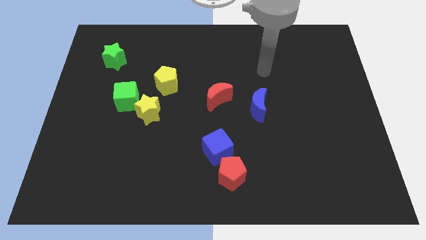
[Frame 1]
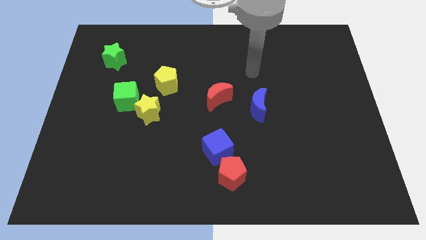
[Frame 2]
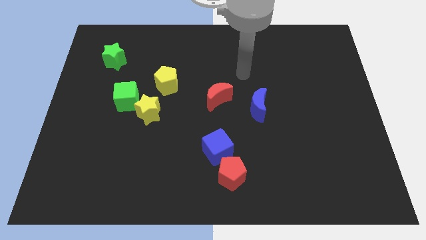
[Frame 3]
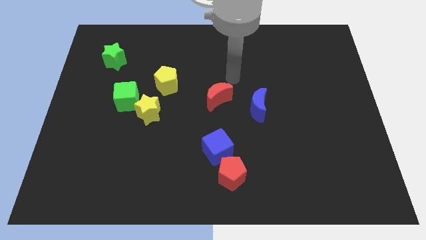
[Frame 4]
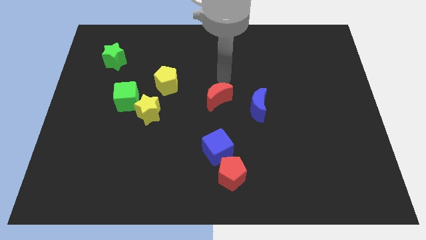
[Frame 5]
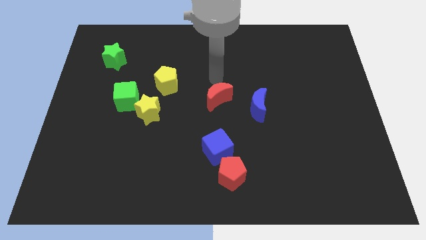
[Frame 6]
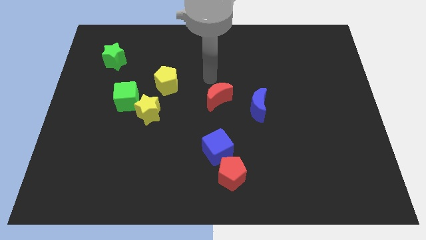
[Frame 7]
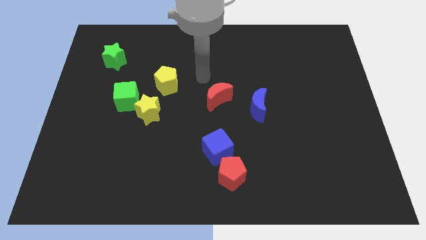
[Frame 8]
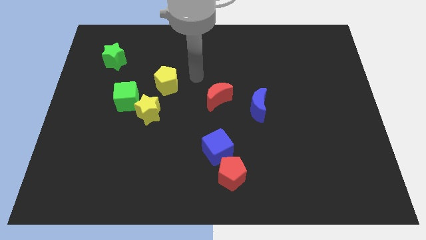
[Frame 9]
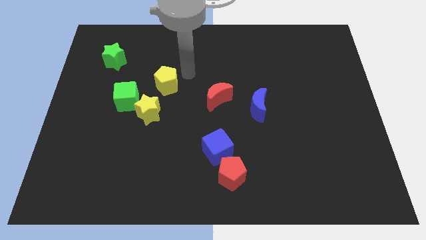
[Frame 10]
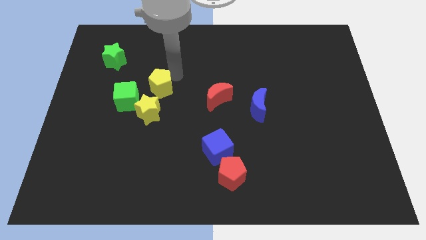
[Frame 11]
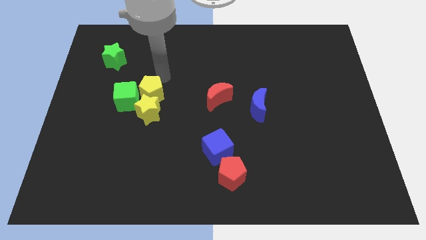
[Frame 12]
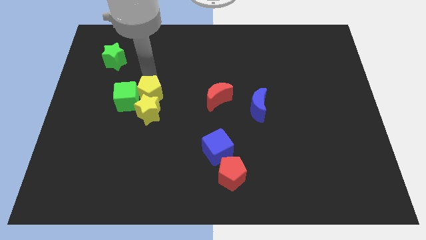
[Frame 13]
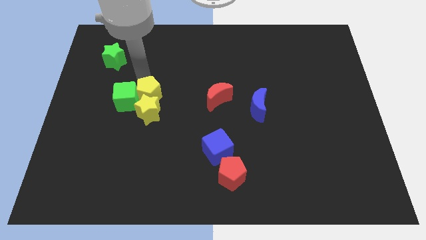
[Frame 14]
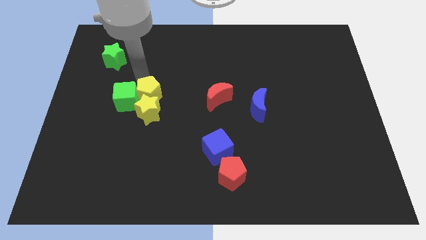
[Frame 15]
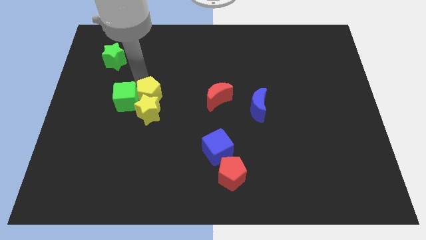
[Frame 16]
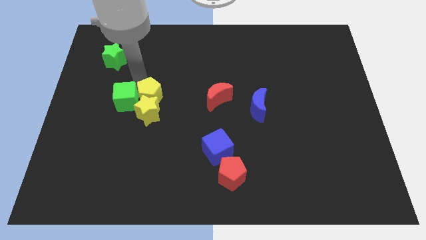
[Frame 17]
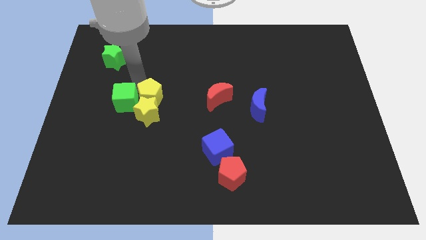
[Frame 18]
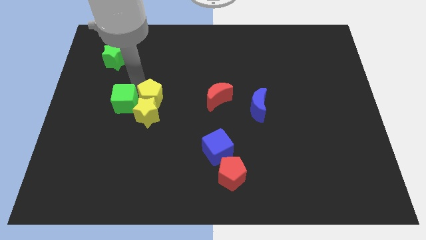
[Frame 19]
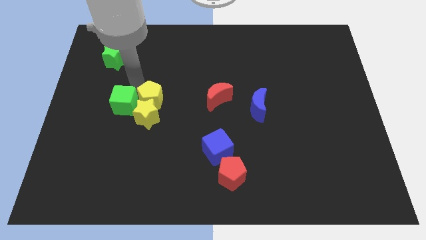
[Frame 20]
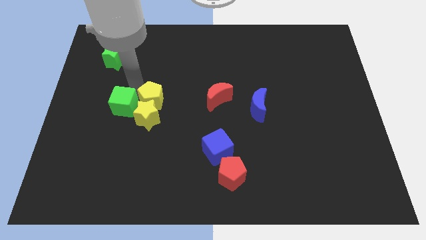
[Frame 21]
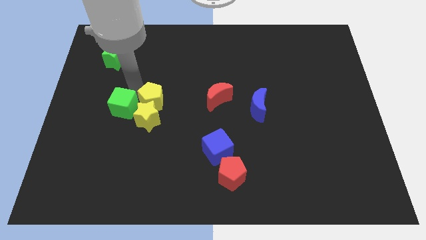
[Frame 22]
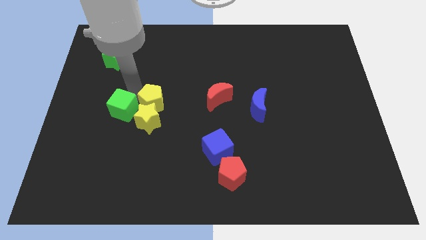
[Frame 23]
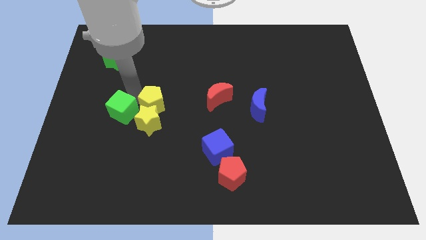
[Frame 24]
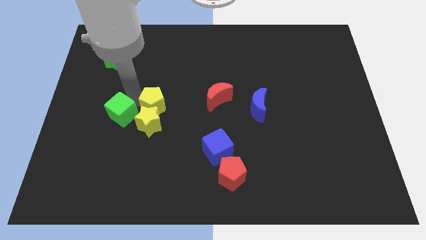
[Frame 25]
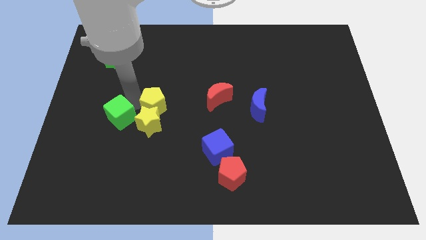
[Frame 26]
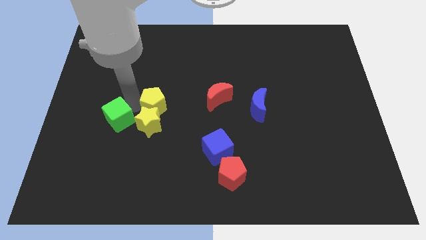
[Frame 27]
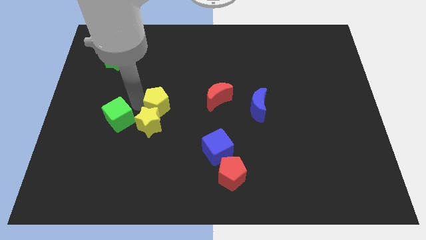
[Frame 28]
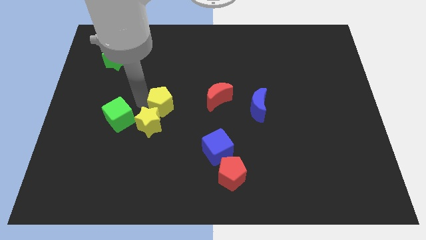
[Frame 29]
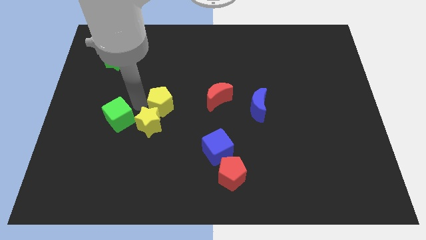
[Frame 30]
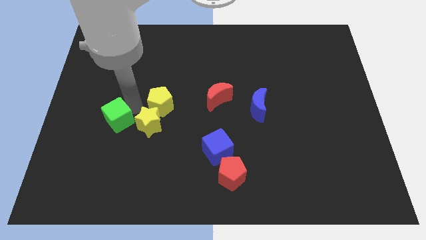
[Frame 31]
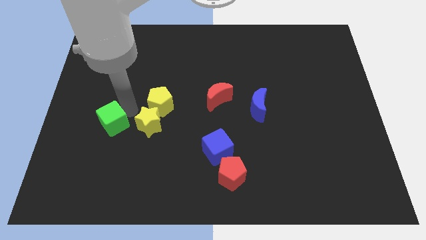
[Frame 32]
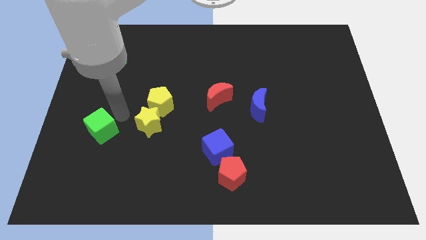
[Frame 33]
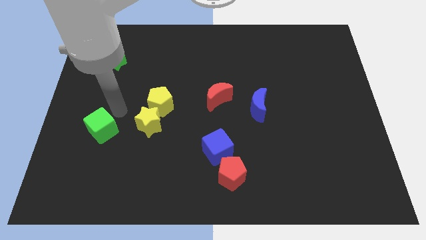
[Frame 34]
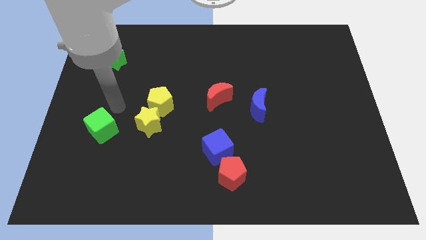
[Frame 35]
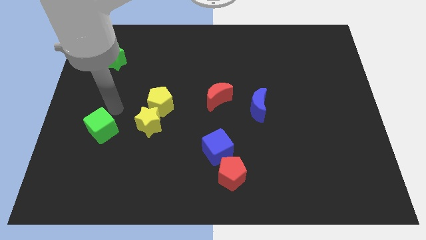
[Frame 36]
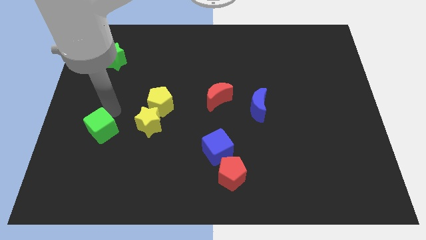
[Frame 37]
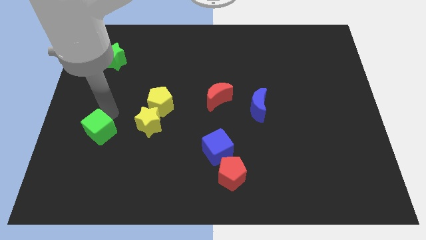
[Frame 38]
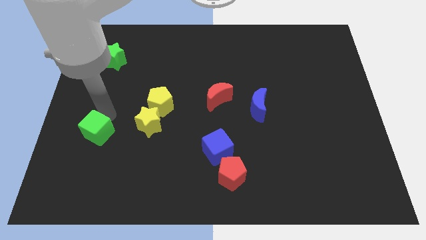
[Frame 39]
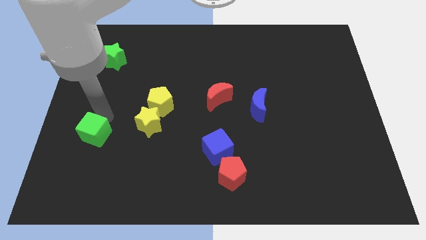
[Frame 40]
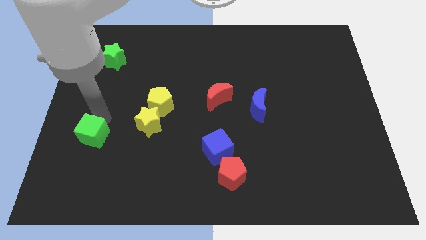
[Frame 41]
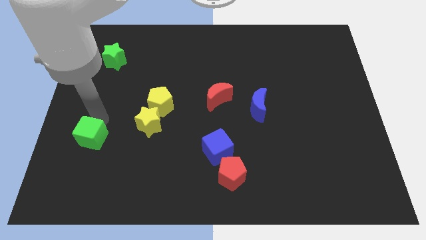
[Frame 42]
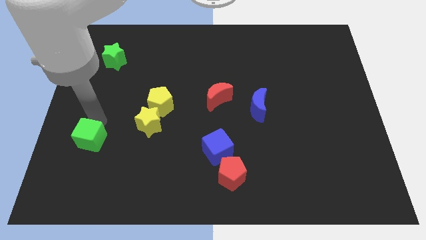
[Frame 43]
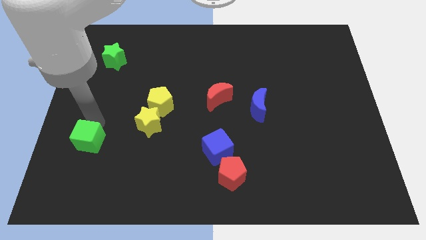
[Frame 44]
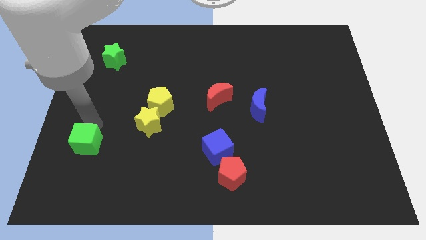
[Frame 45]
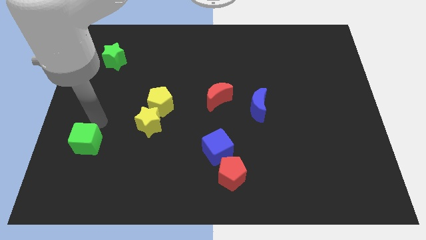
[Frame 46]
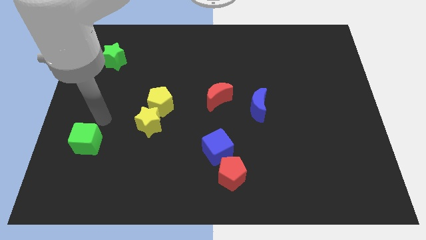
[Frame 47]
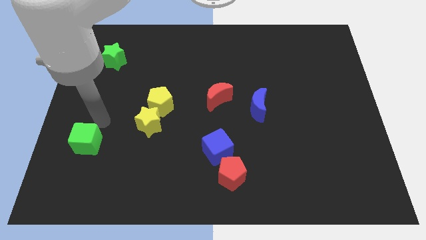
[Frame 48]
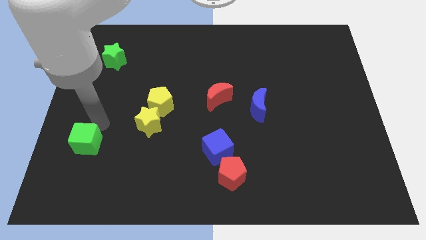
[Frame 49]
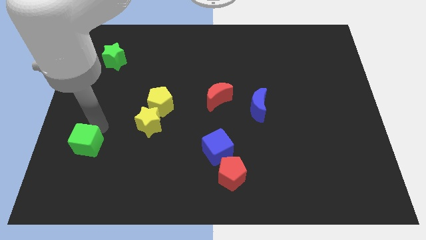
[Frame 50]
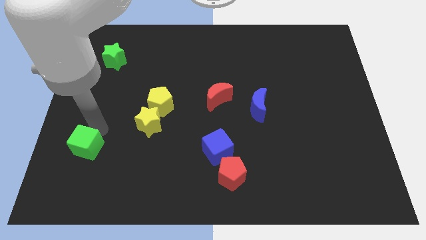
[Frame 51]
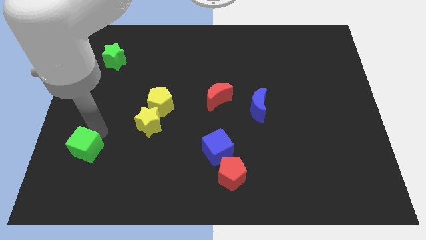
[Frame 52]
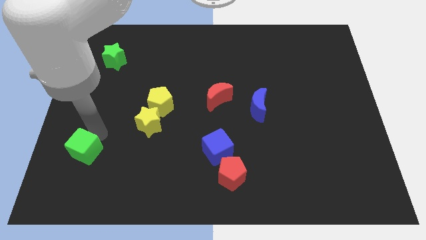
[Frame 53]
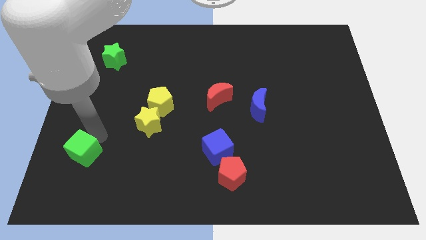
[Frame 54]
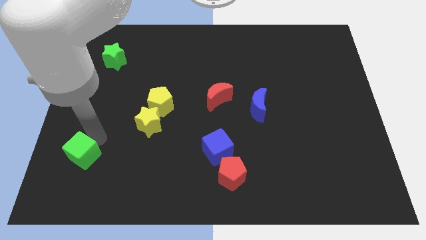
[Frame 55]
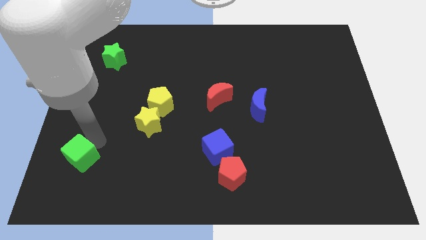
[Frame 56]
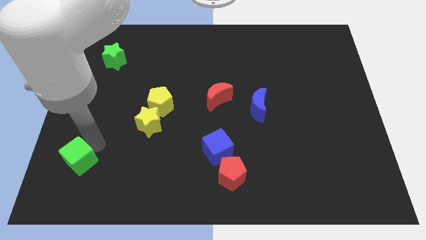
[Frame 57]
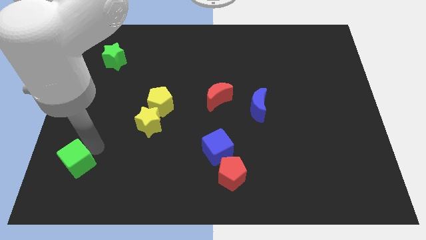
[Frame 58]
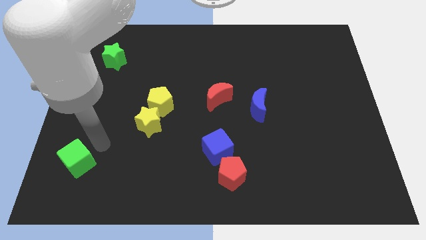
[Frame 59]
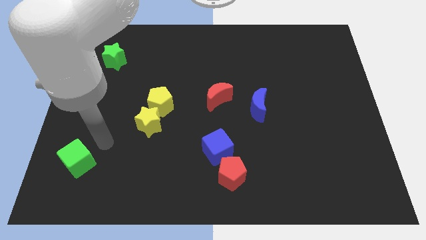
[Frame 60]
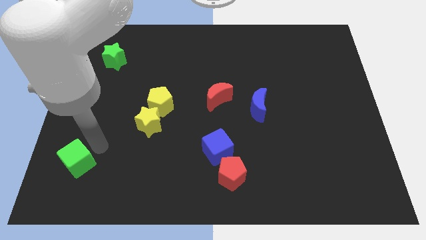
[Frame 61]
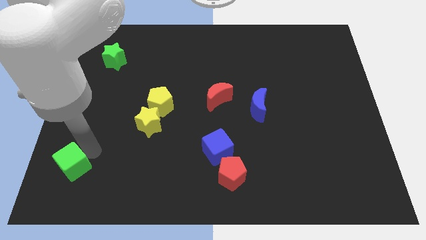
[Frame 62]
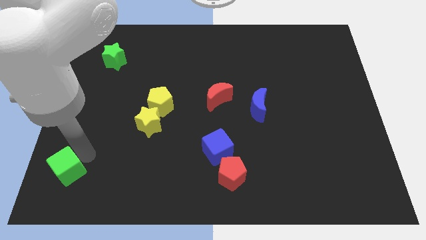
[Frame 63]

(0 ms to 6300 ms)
put the green cube to the bottom left of the board
